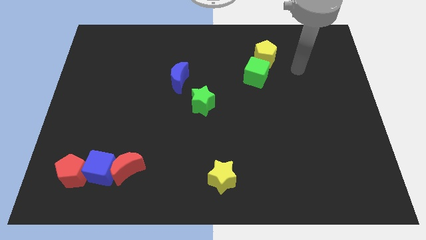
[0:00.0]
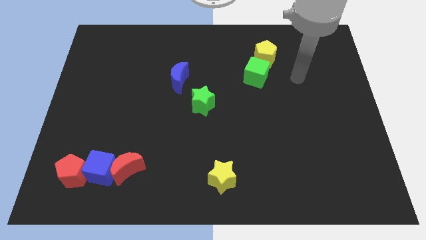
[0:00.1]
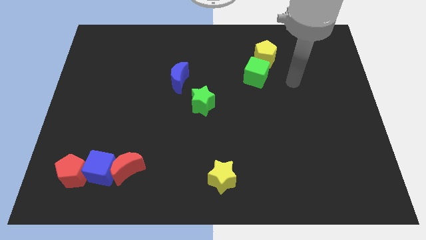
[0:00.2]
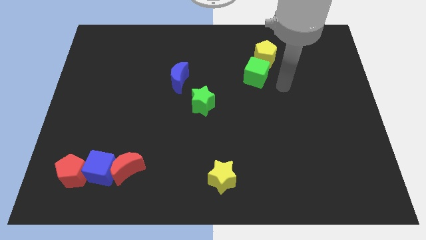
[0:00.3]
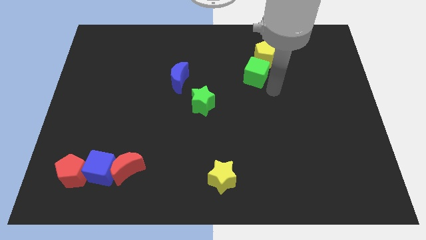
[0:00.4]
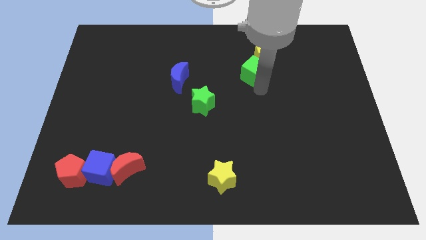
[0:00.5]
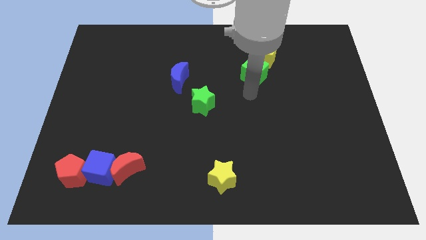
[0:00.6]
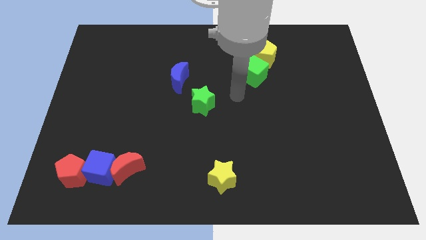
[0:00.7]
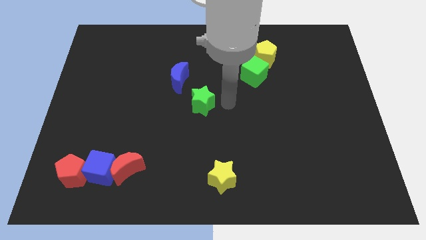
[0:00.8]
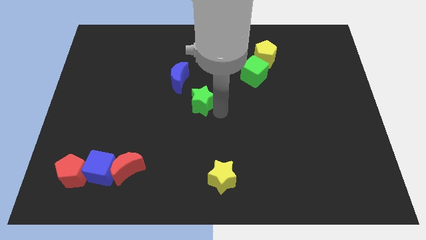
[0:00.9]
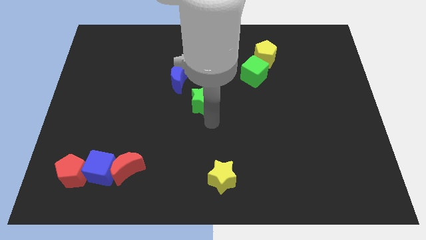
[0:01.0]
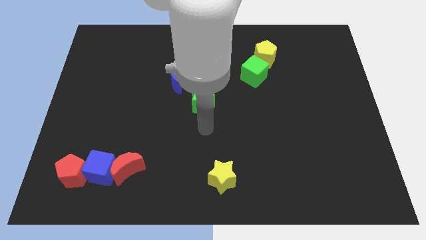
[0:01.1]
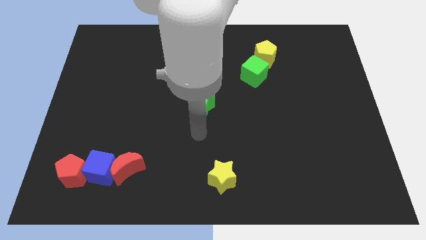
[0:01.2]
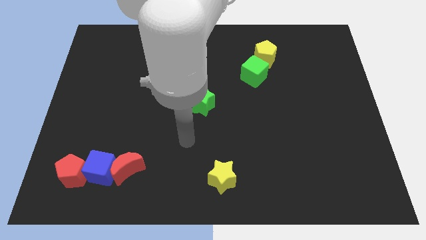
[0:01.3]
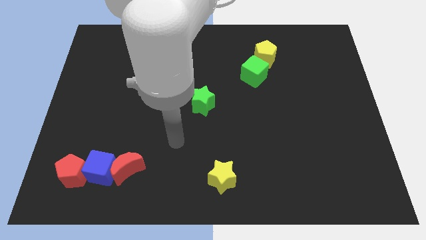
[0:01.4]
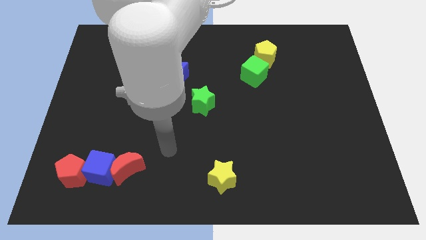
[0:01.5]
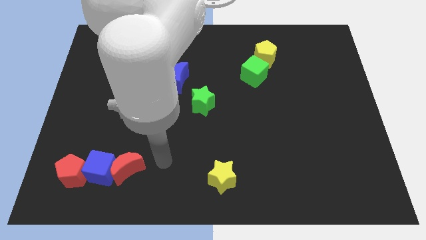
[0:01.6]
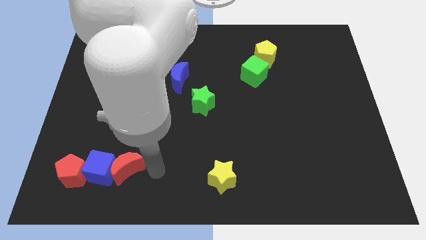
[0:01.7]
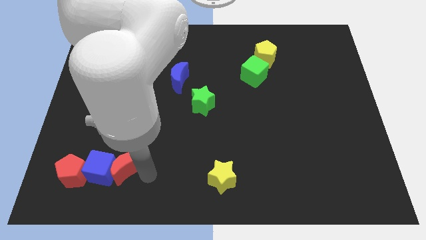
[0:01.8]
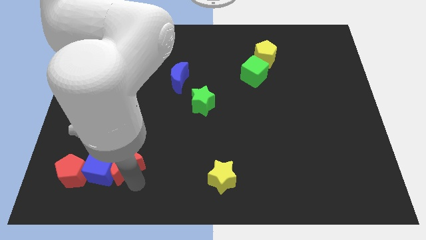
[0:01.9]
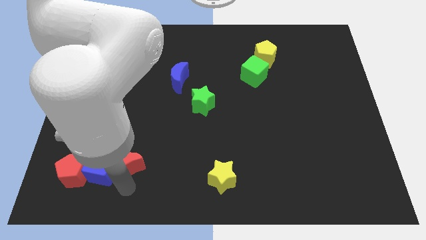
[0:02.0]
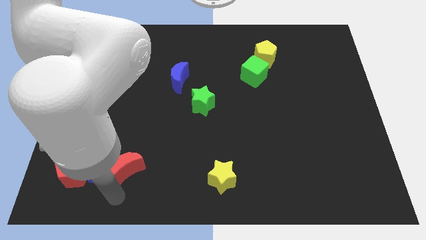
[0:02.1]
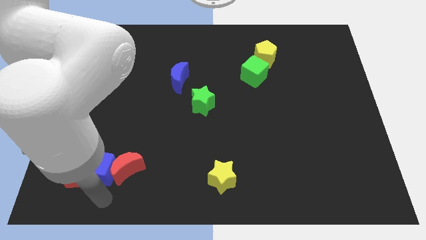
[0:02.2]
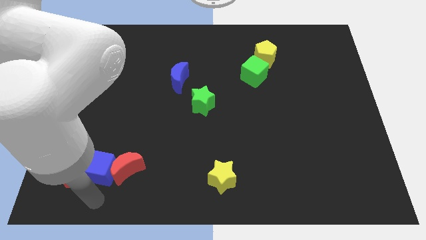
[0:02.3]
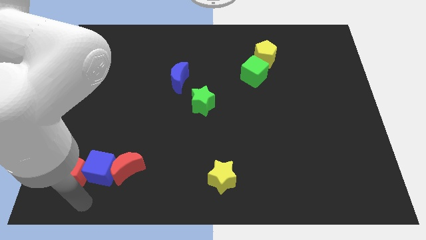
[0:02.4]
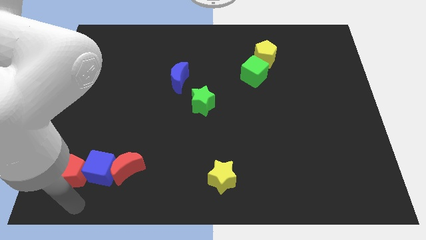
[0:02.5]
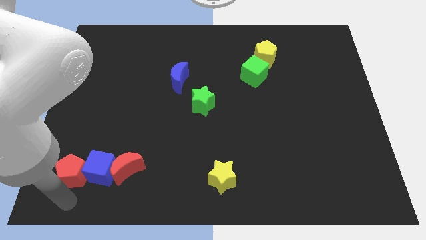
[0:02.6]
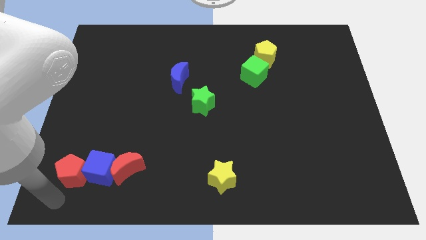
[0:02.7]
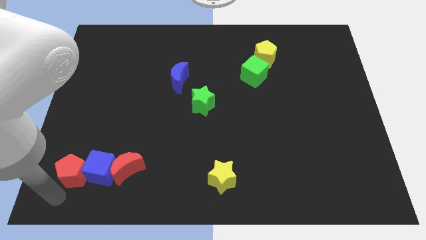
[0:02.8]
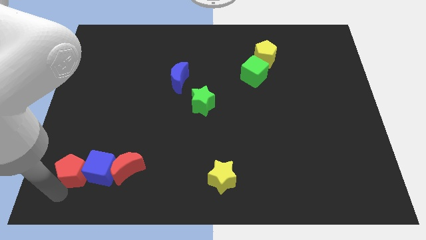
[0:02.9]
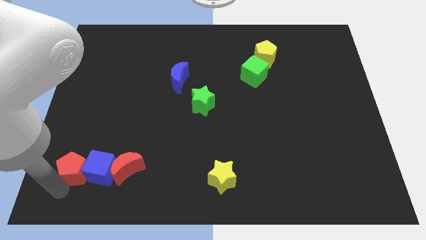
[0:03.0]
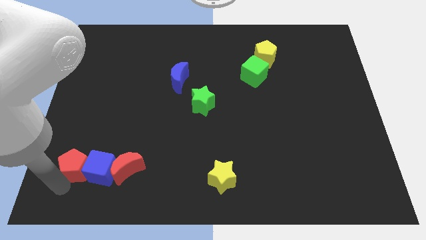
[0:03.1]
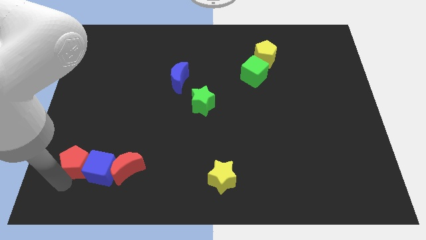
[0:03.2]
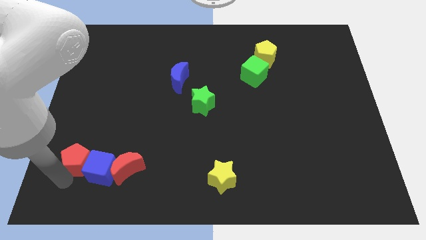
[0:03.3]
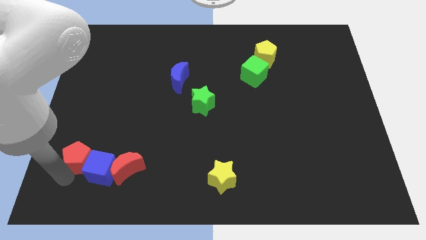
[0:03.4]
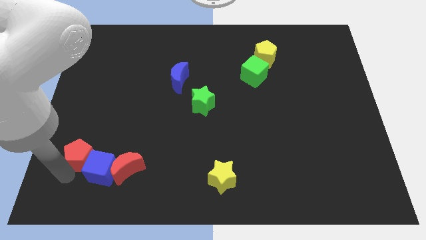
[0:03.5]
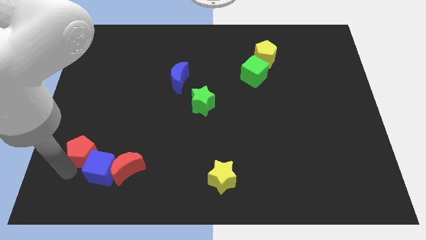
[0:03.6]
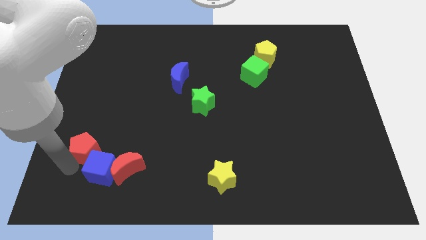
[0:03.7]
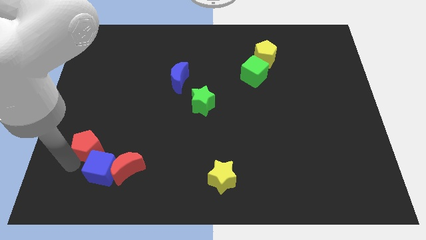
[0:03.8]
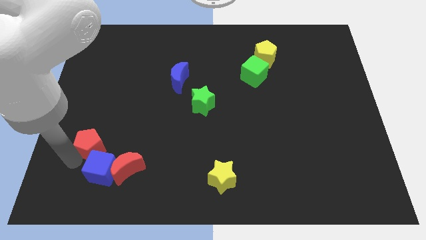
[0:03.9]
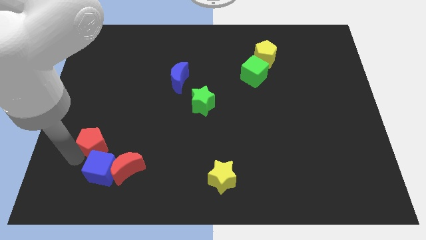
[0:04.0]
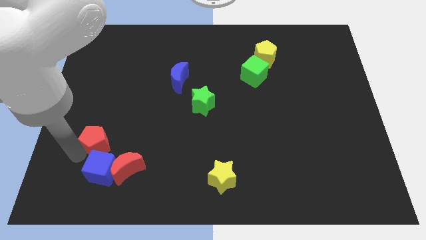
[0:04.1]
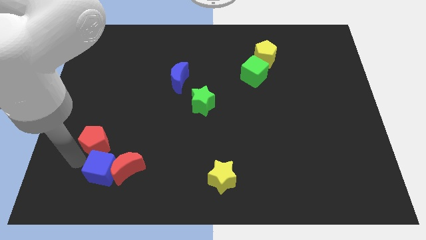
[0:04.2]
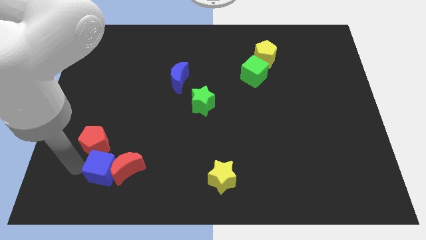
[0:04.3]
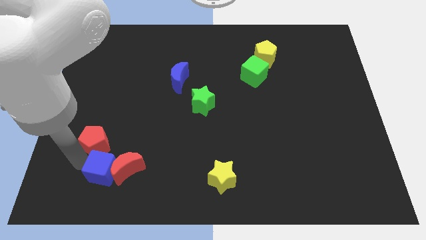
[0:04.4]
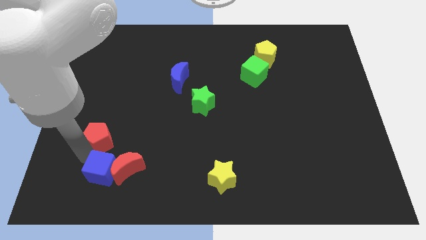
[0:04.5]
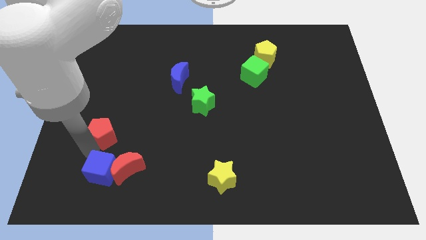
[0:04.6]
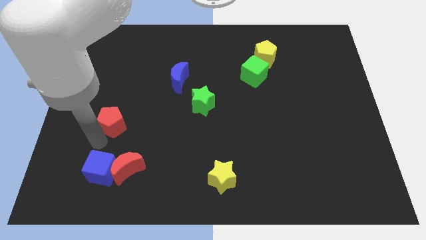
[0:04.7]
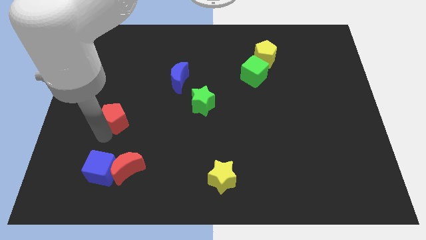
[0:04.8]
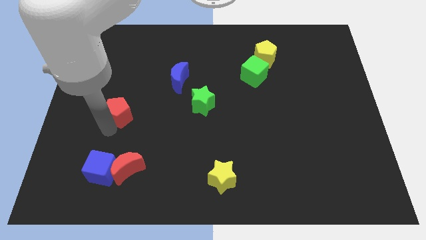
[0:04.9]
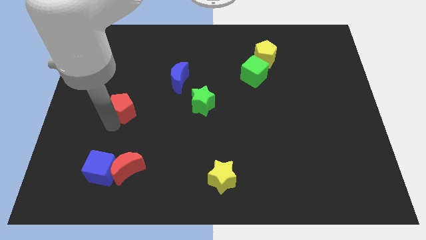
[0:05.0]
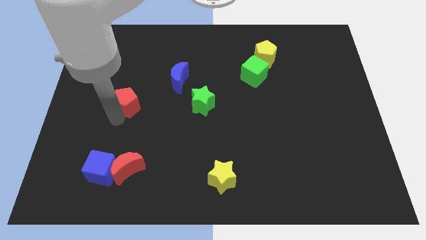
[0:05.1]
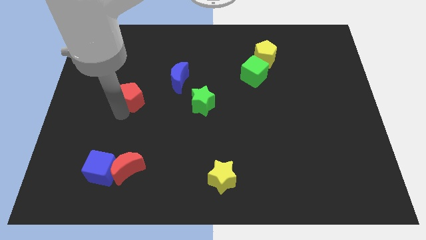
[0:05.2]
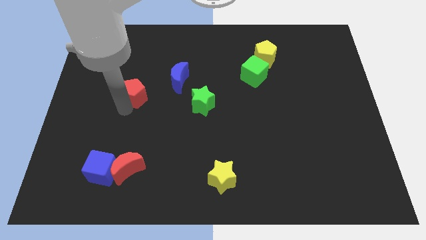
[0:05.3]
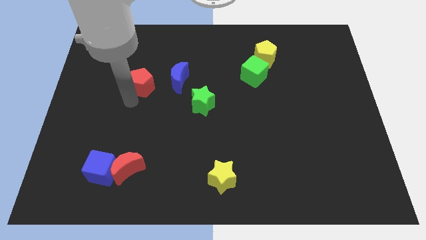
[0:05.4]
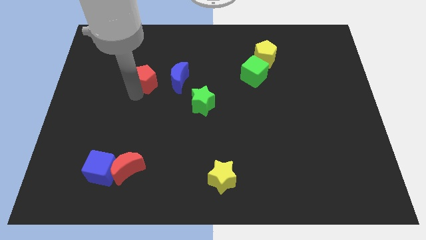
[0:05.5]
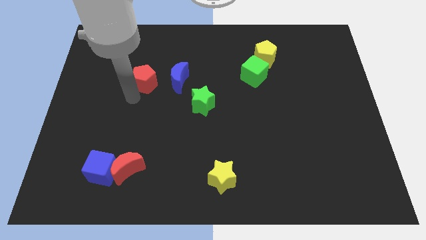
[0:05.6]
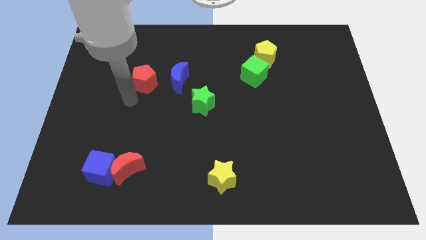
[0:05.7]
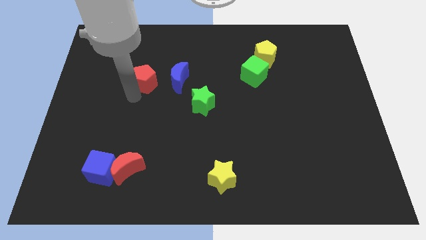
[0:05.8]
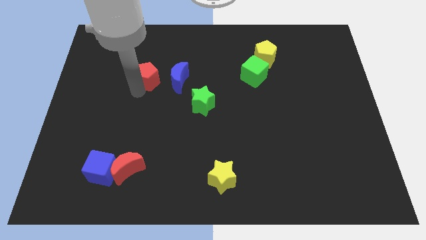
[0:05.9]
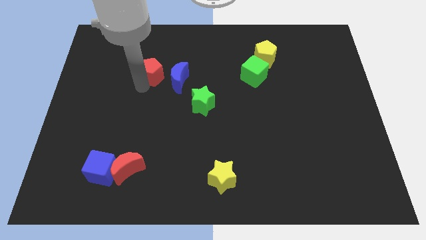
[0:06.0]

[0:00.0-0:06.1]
slide the red pentagon diagonally up and to the left of the blue moon

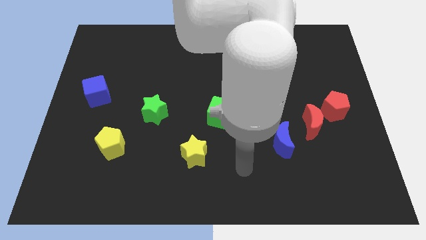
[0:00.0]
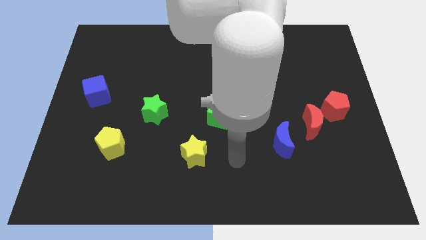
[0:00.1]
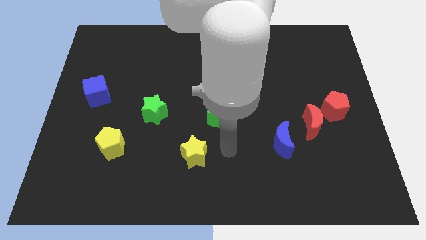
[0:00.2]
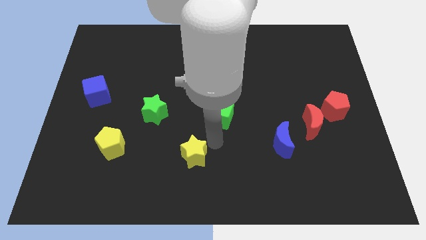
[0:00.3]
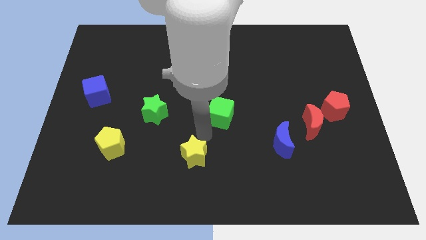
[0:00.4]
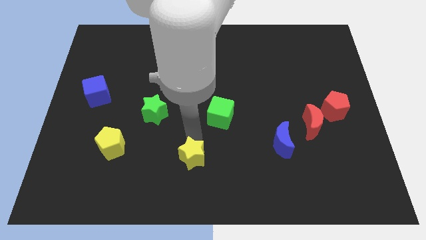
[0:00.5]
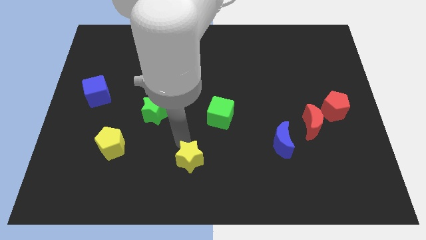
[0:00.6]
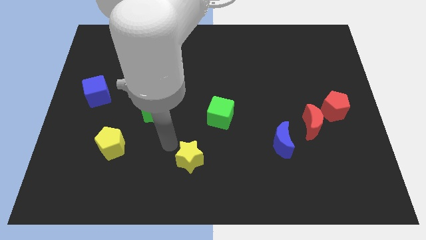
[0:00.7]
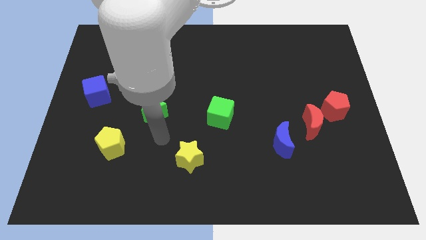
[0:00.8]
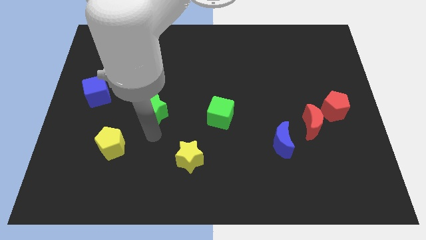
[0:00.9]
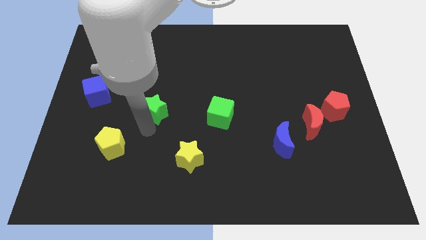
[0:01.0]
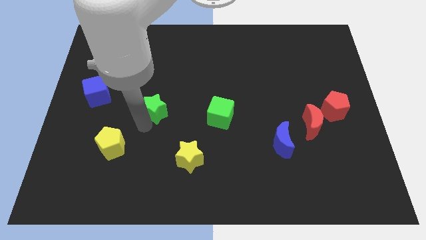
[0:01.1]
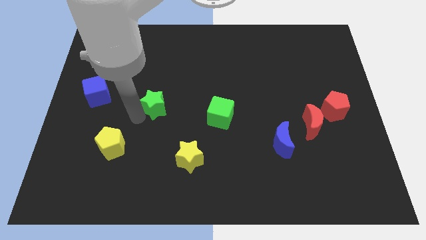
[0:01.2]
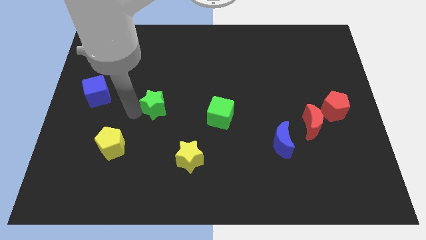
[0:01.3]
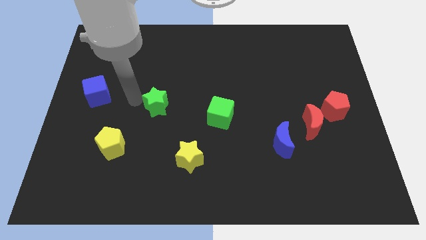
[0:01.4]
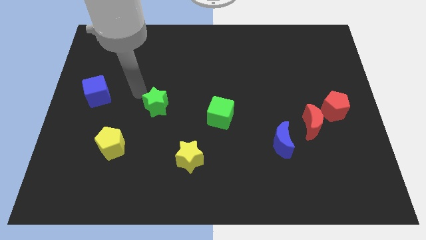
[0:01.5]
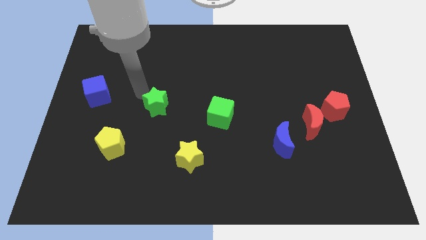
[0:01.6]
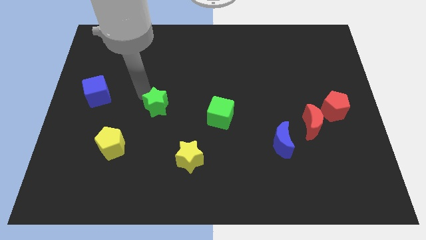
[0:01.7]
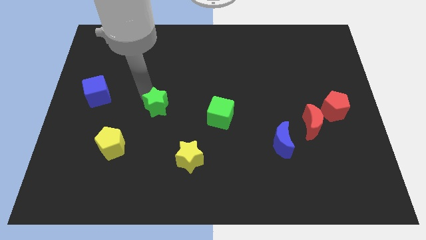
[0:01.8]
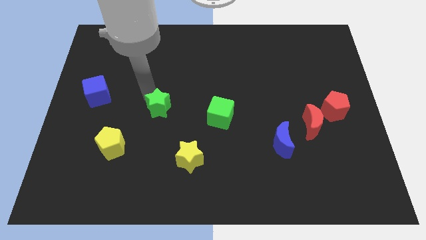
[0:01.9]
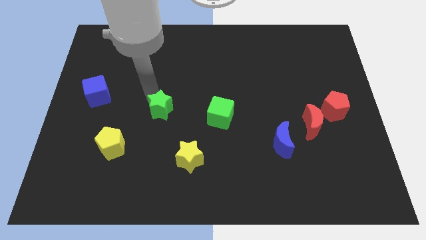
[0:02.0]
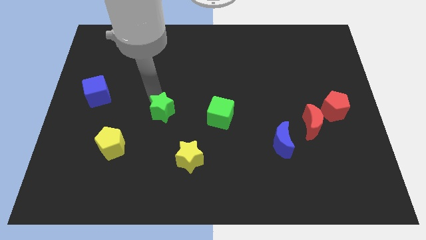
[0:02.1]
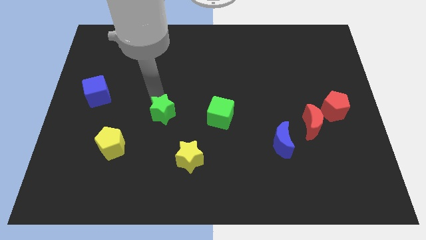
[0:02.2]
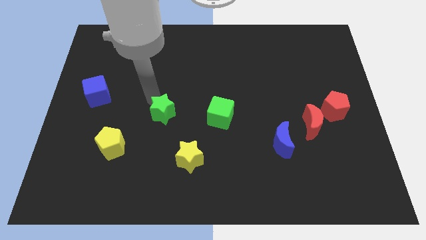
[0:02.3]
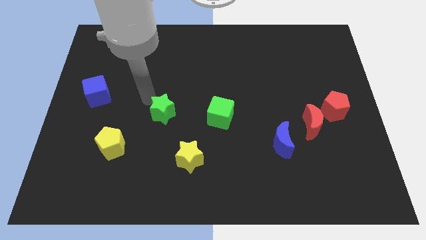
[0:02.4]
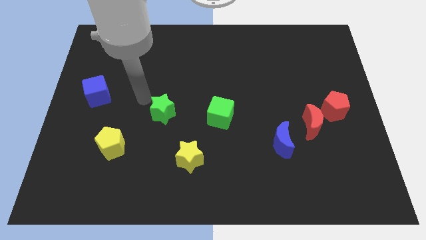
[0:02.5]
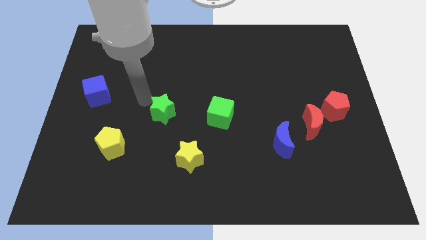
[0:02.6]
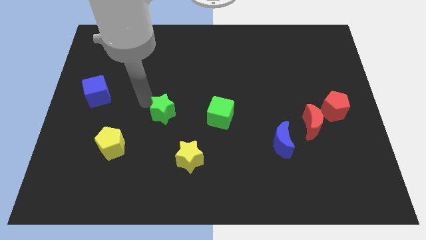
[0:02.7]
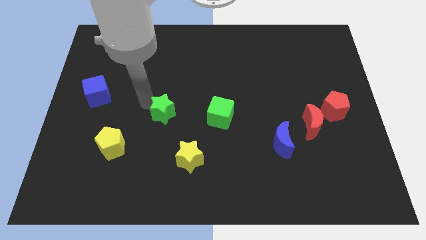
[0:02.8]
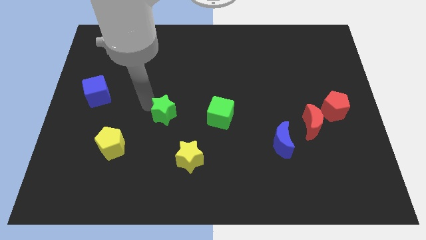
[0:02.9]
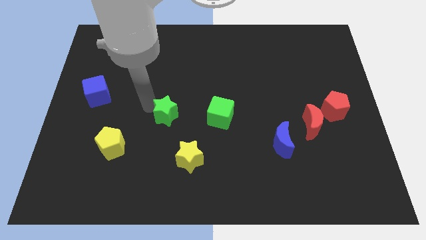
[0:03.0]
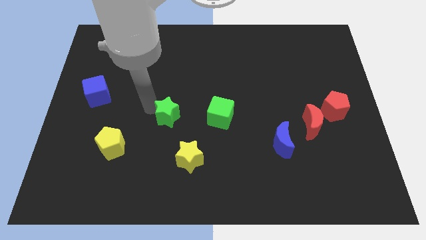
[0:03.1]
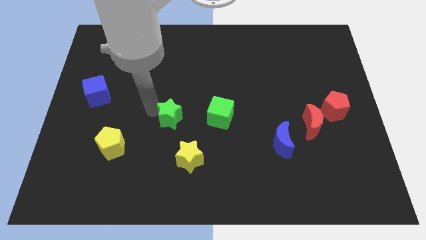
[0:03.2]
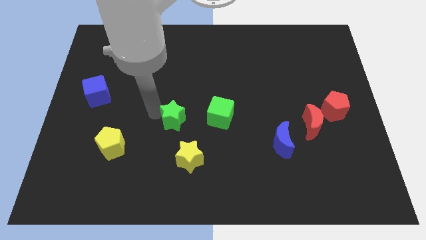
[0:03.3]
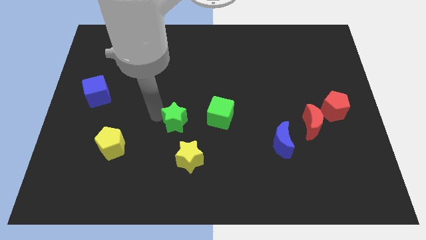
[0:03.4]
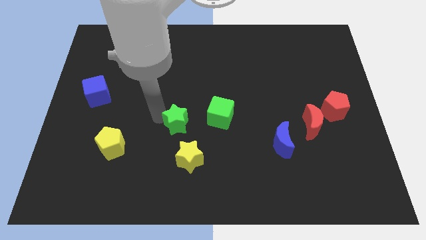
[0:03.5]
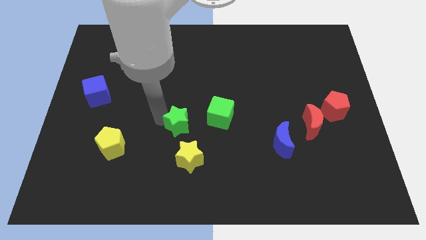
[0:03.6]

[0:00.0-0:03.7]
move the green star to the bottom left of the green cube
